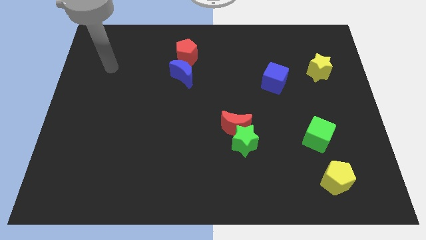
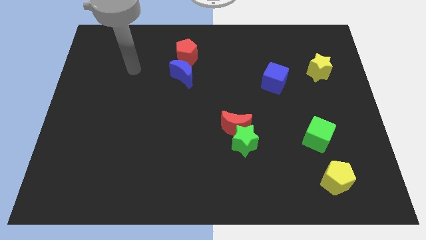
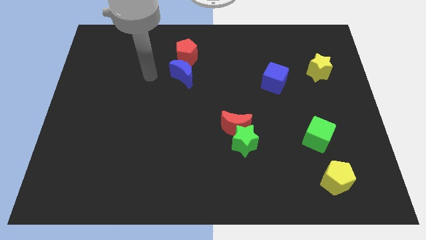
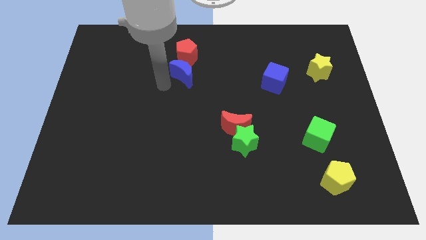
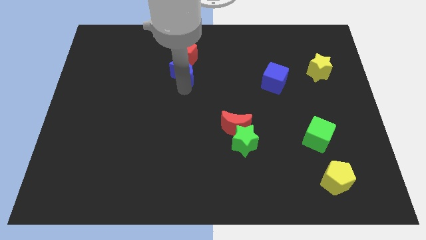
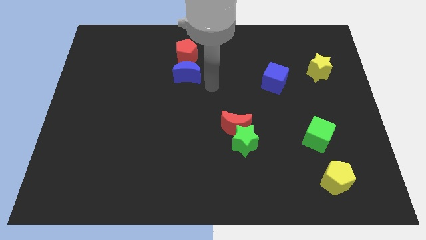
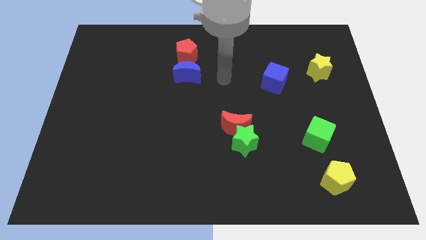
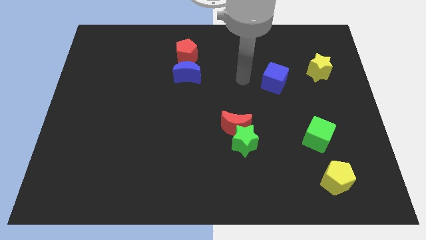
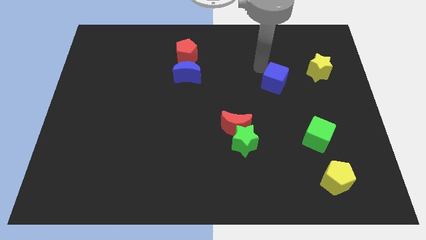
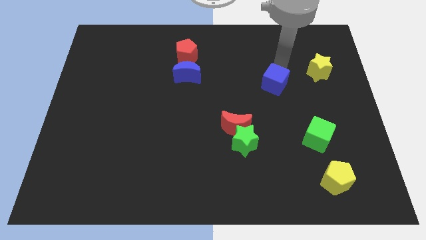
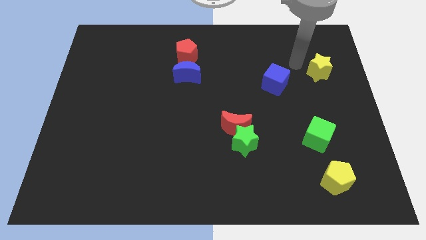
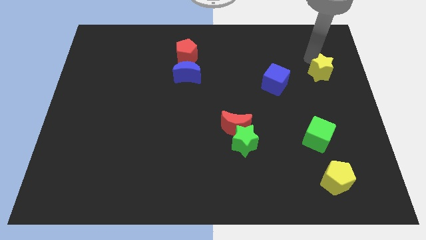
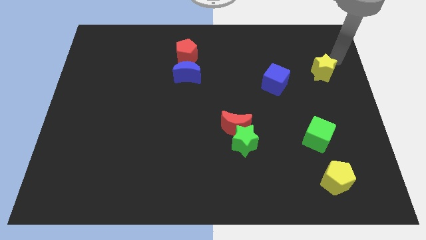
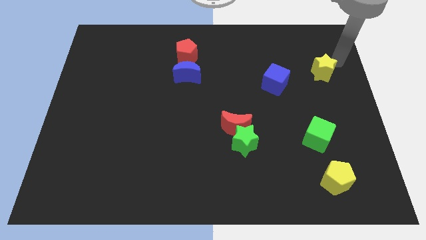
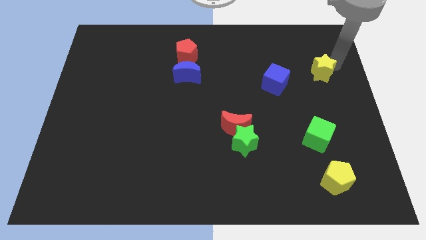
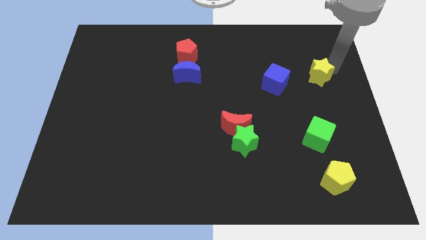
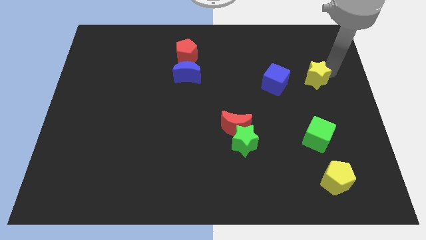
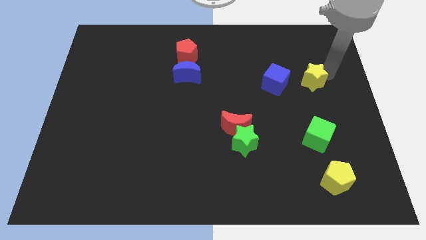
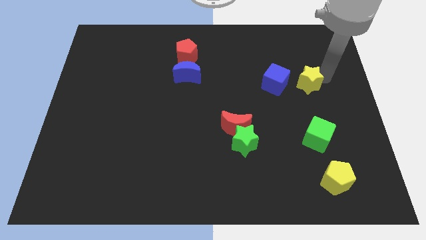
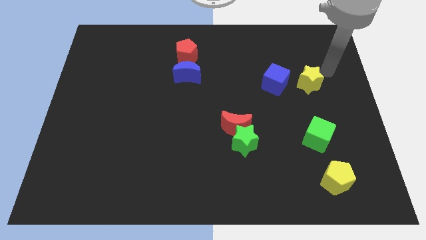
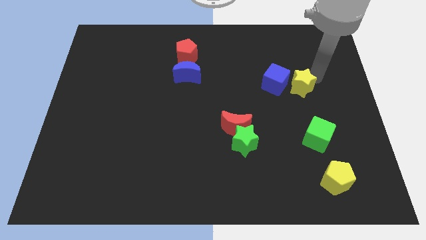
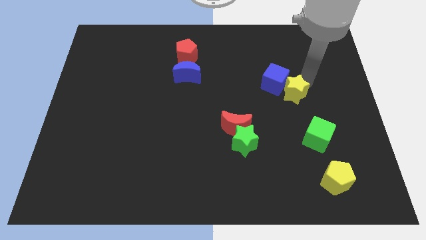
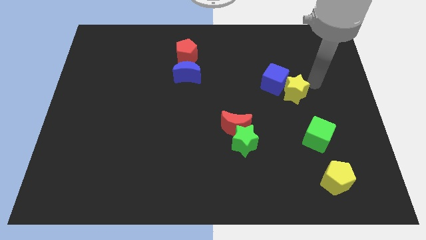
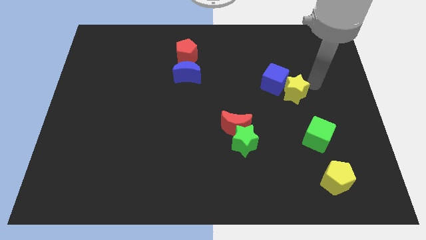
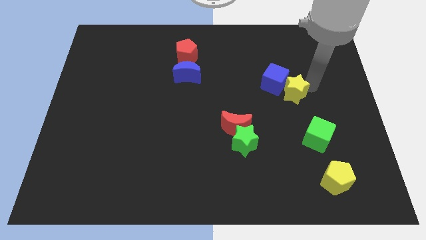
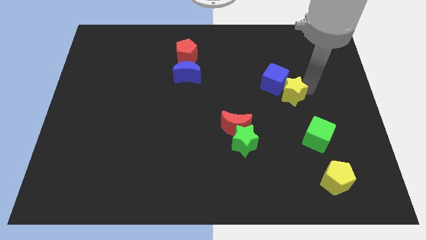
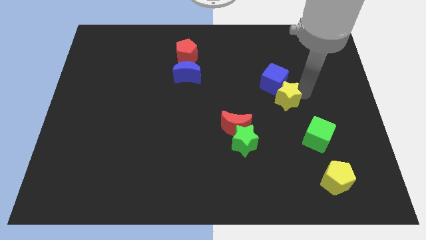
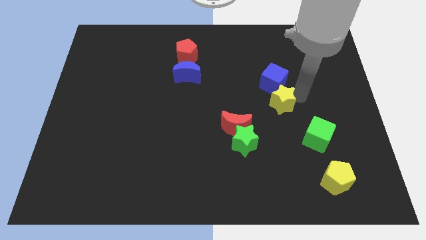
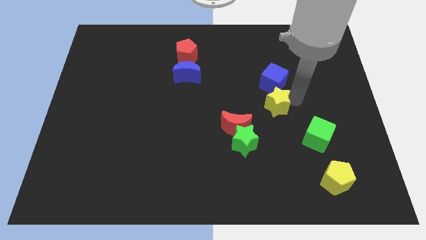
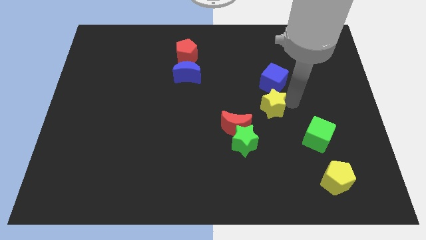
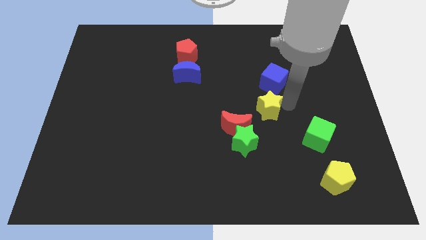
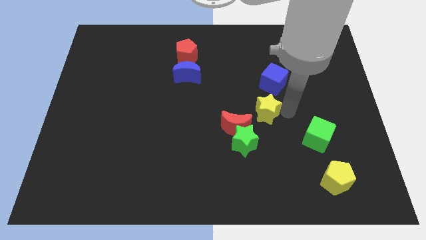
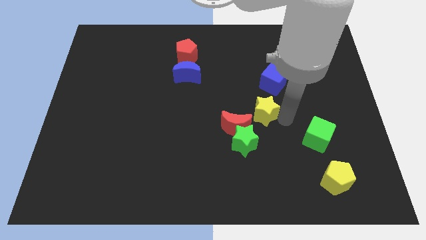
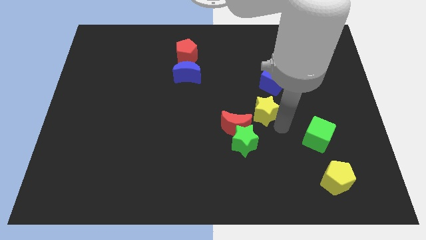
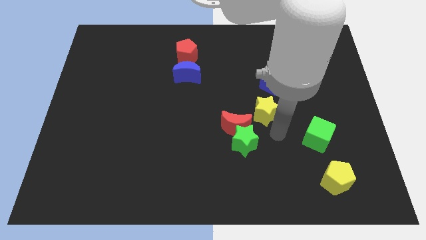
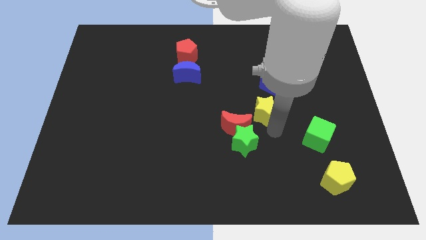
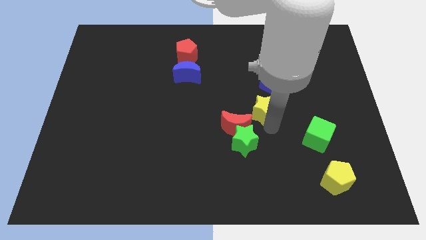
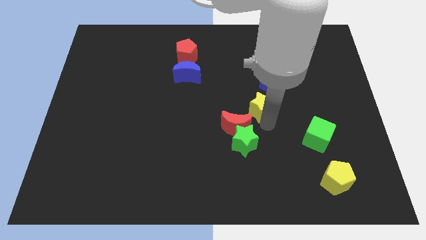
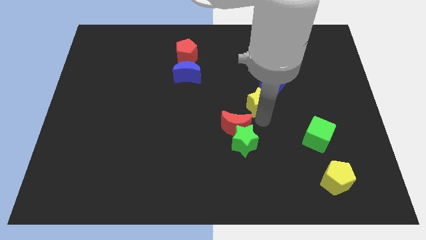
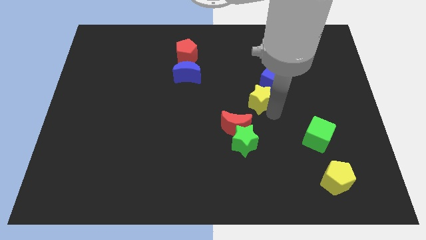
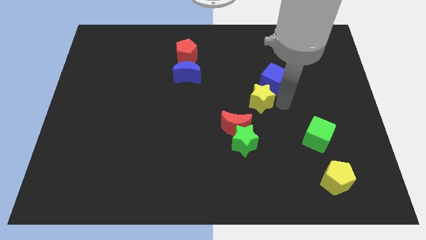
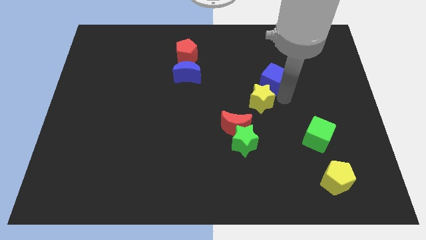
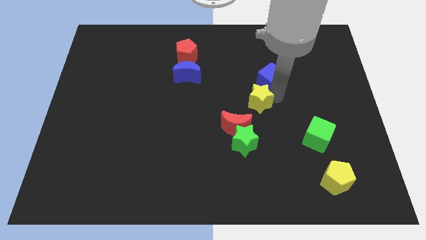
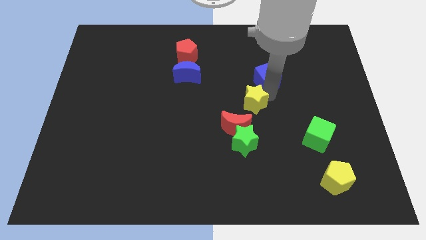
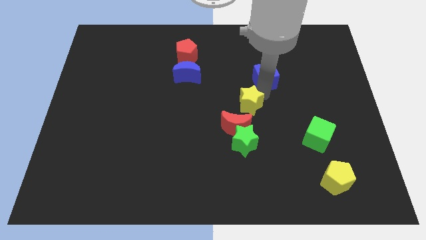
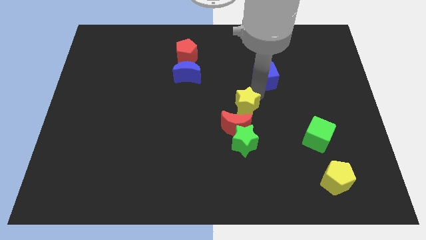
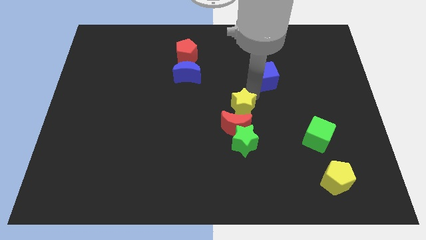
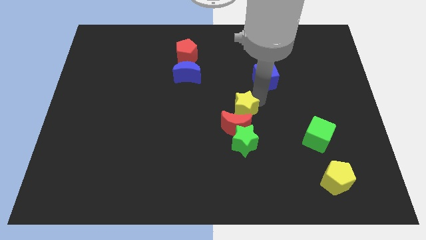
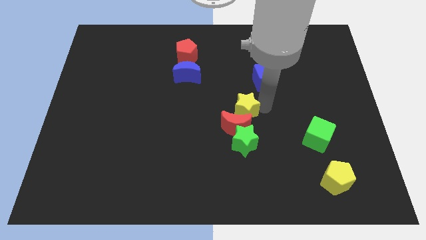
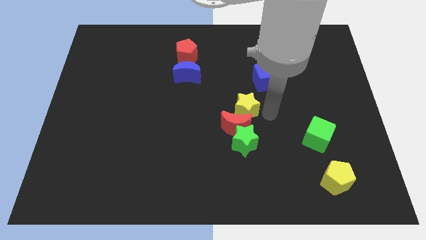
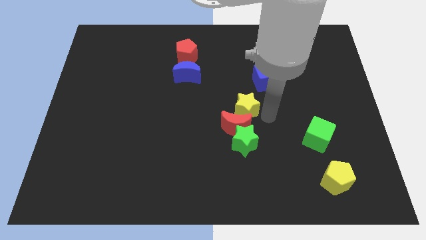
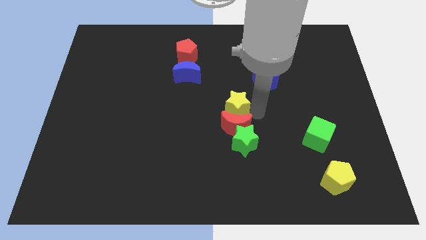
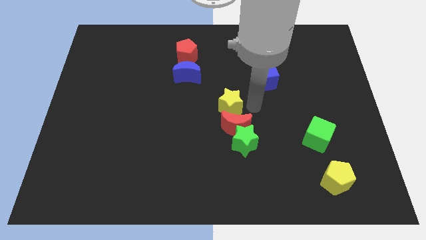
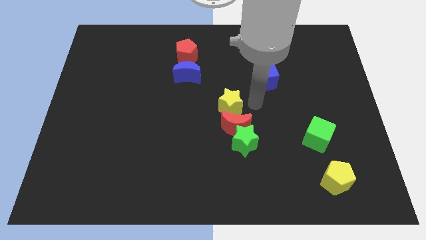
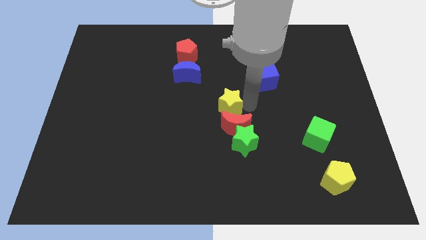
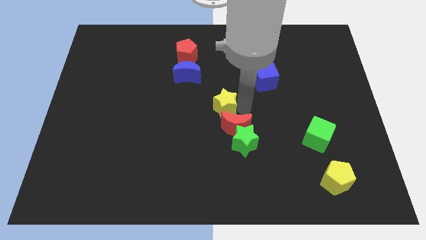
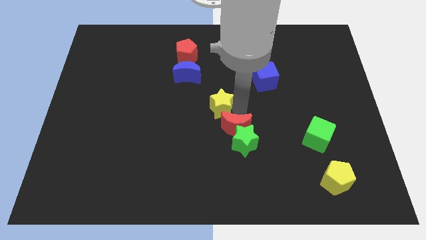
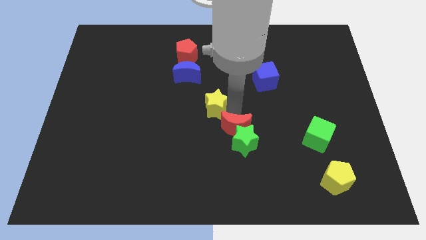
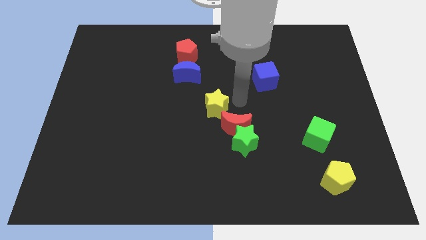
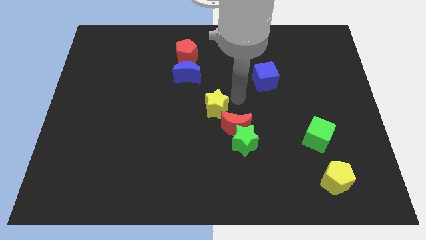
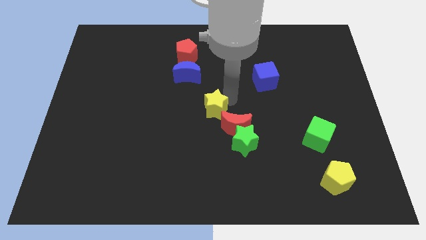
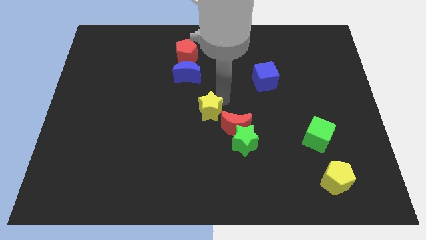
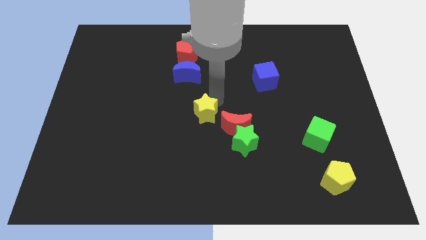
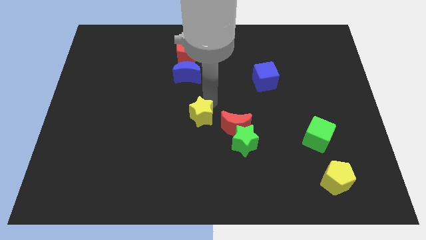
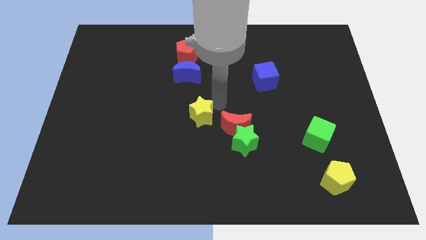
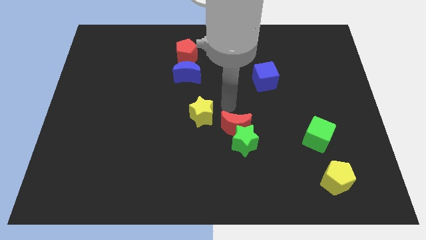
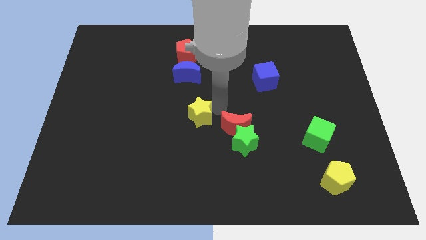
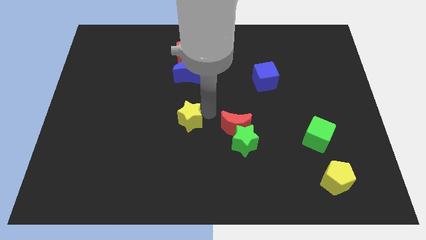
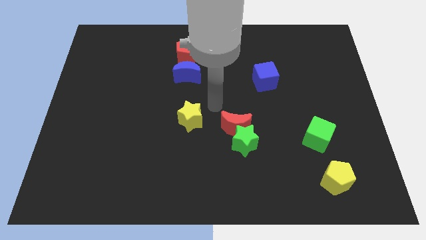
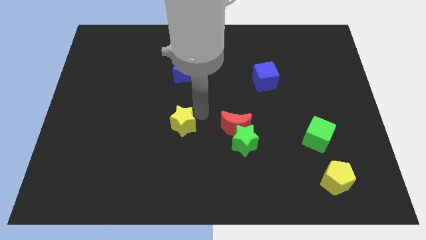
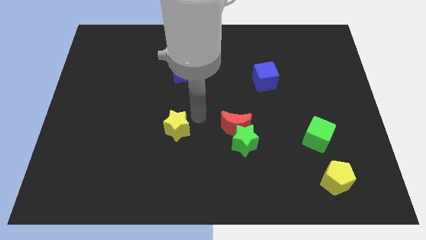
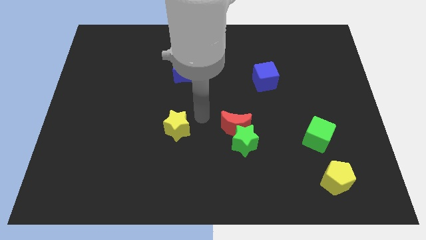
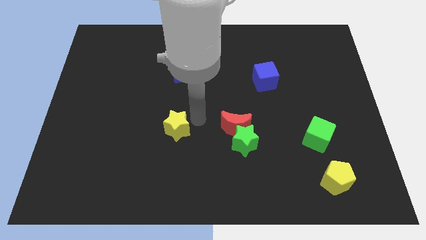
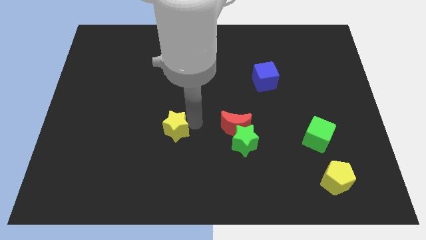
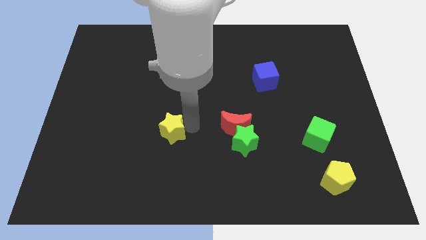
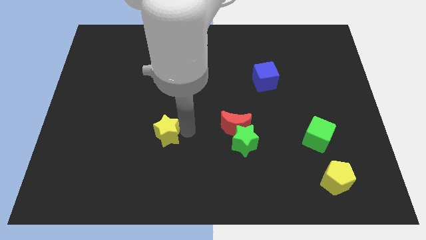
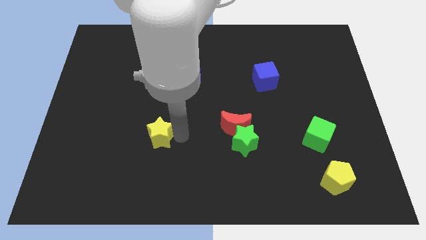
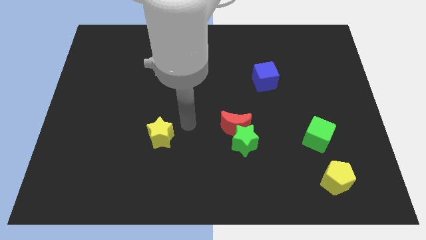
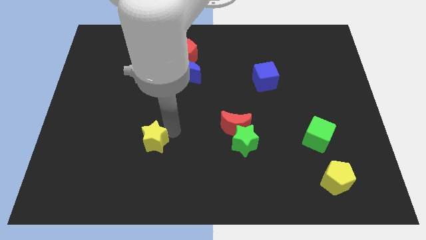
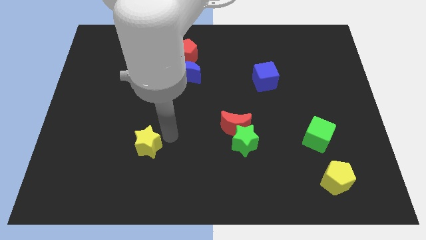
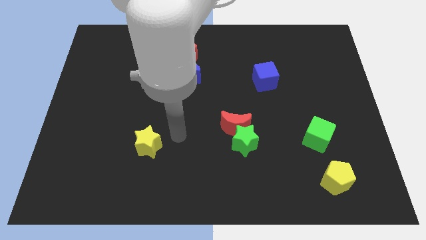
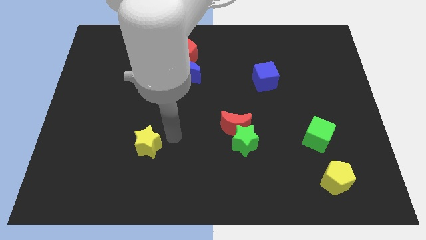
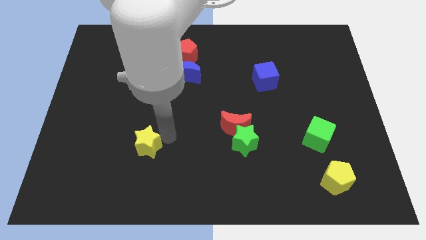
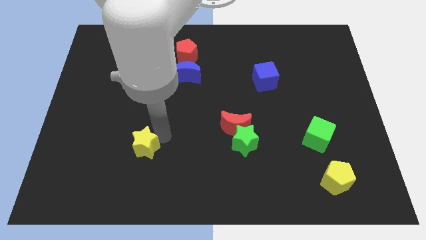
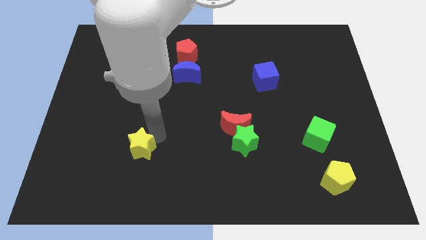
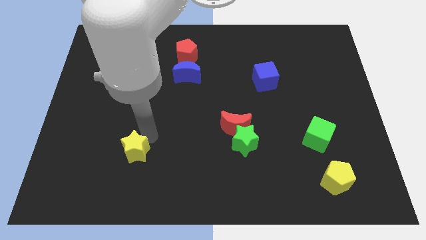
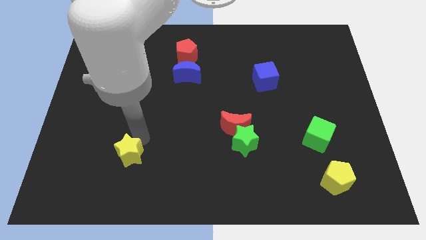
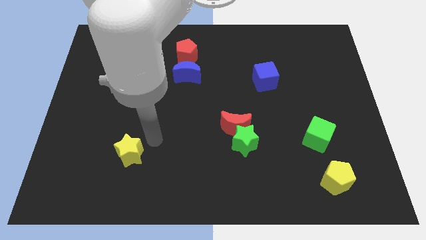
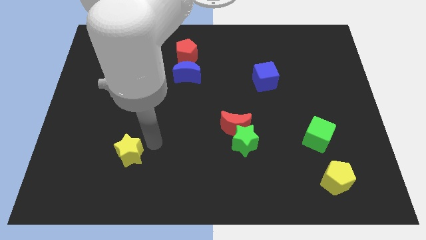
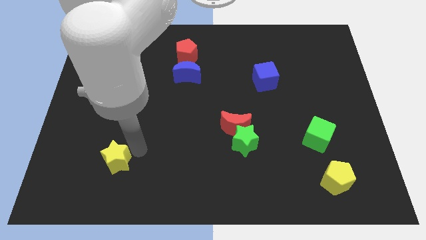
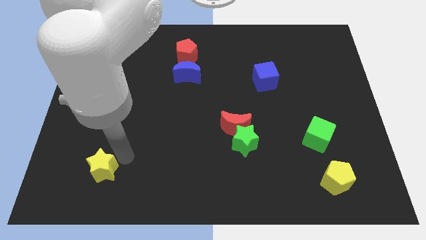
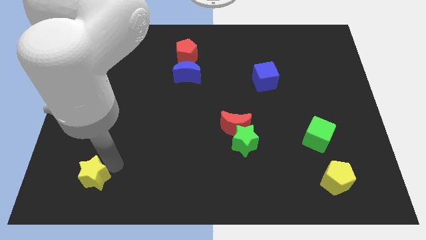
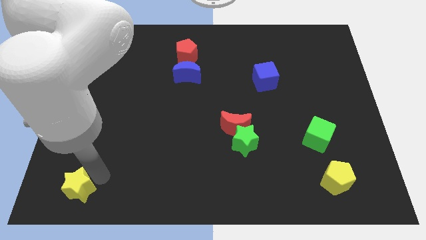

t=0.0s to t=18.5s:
move the yellow star to the bottom left of the board
